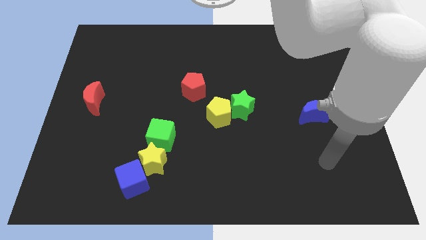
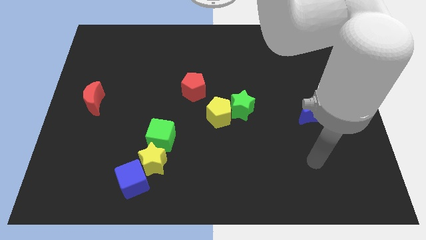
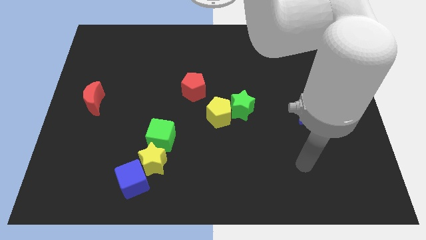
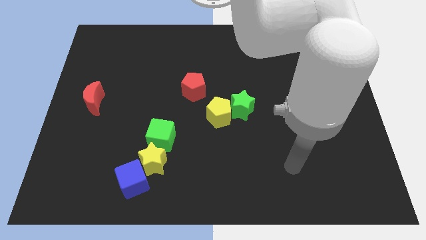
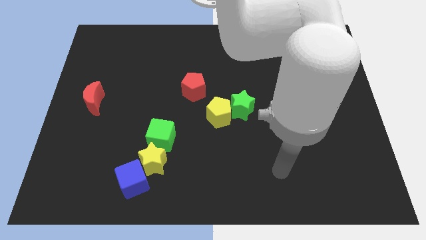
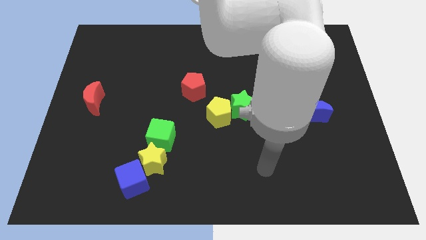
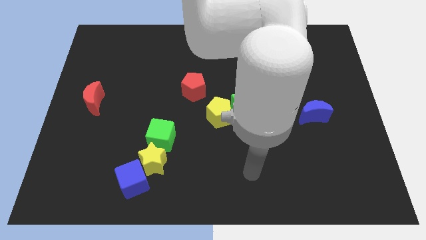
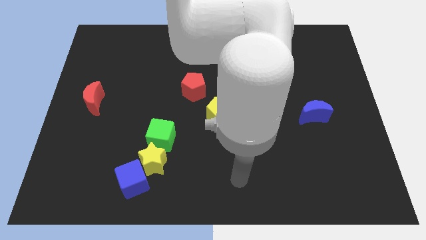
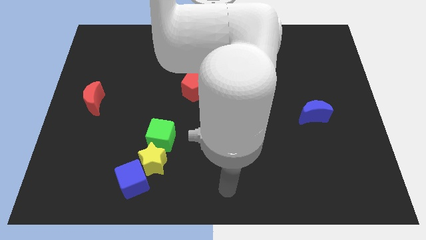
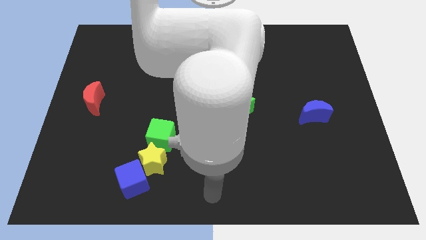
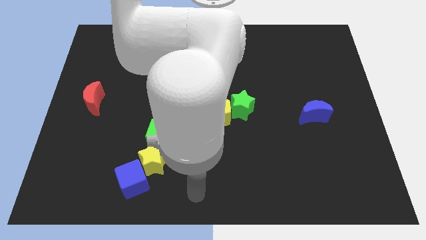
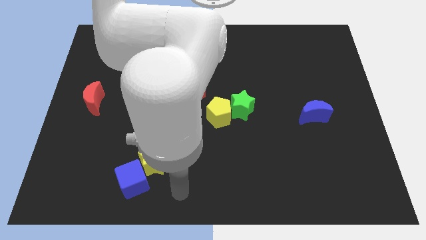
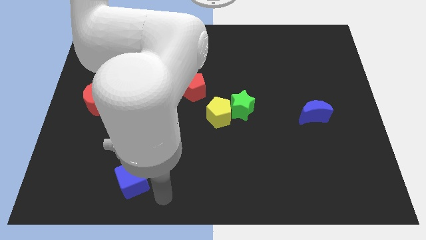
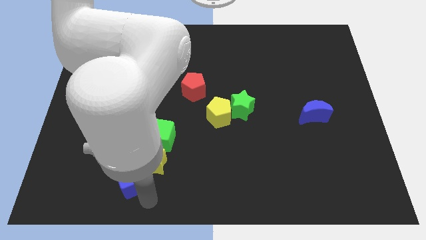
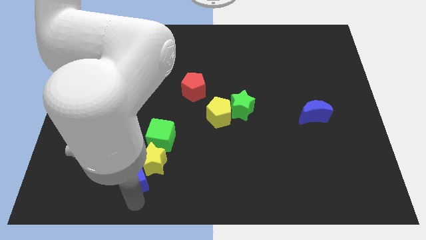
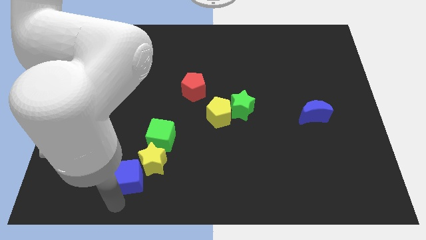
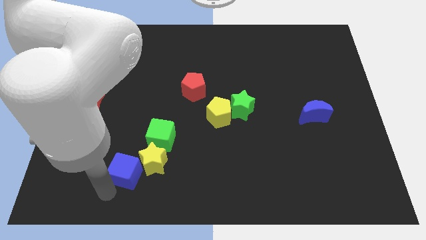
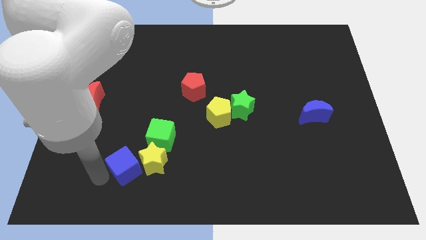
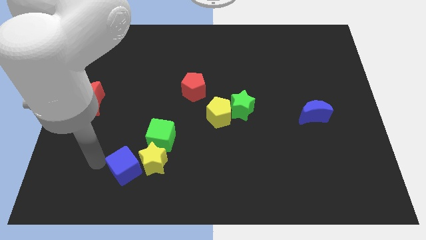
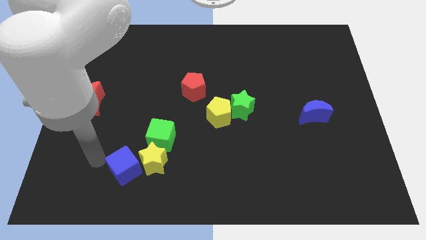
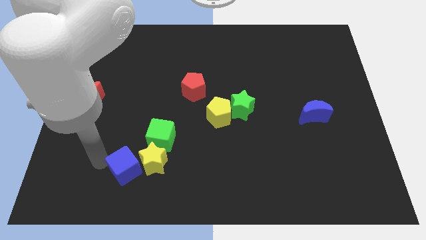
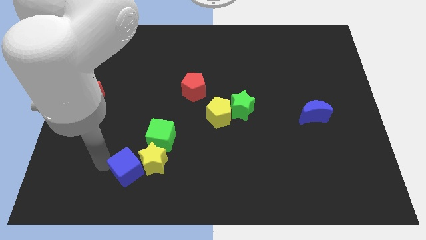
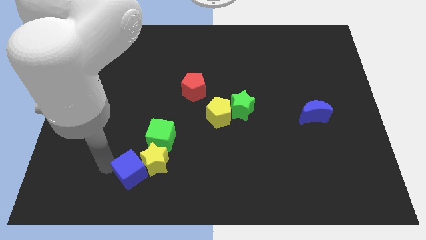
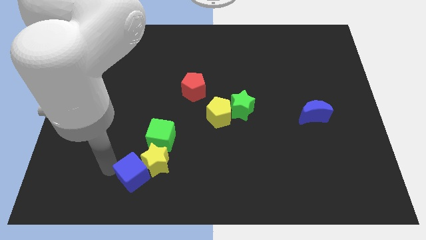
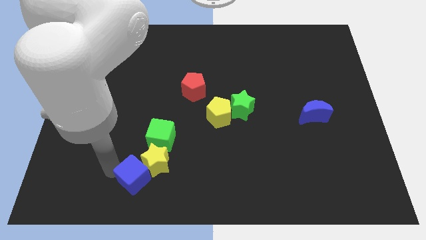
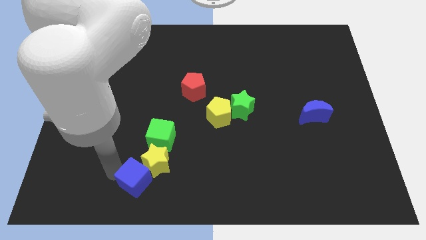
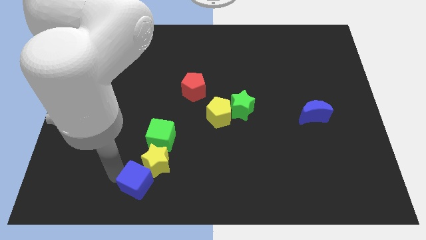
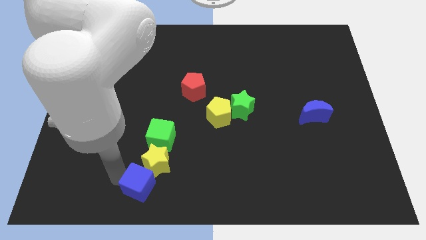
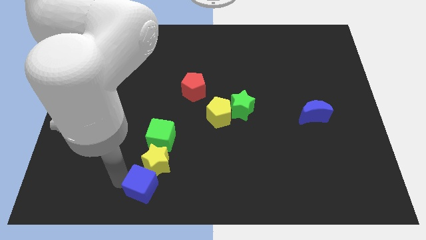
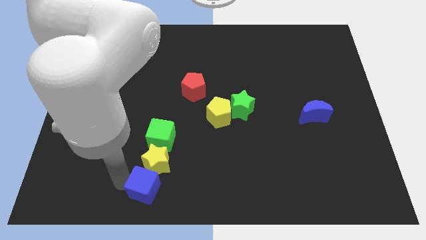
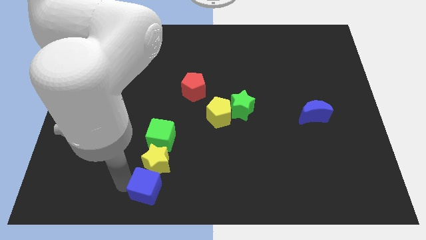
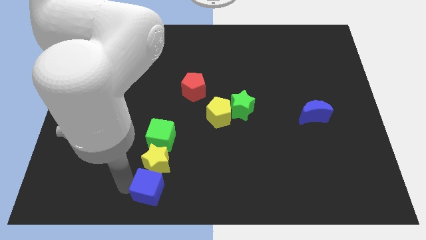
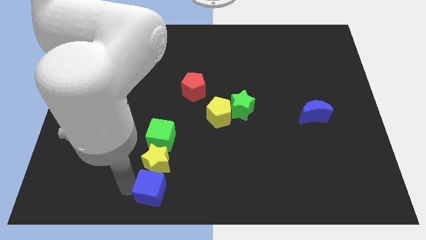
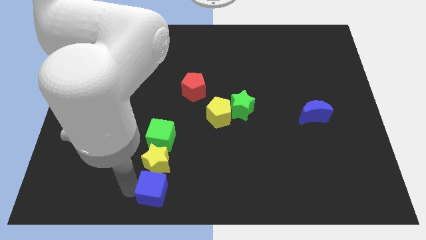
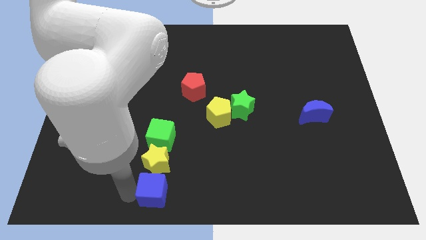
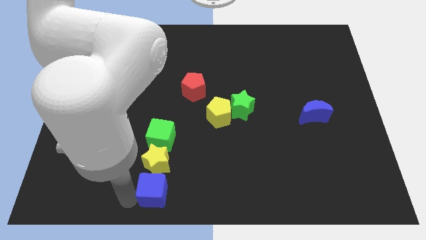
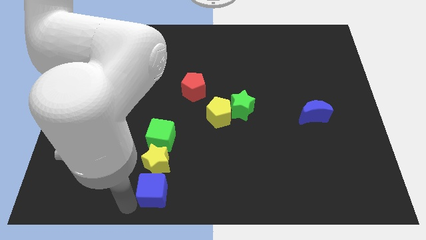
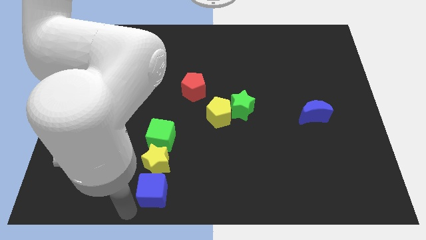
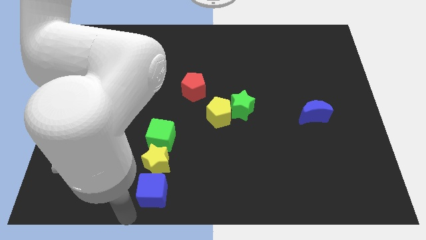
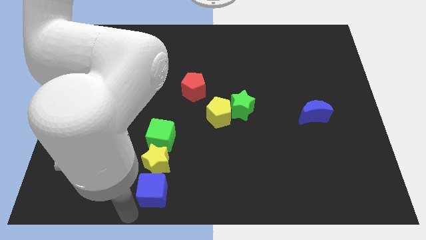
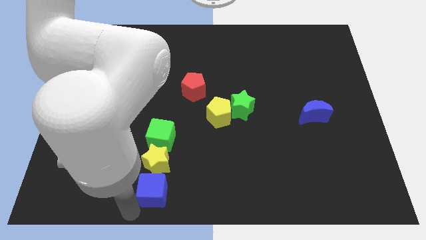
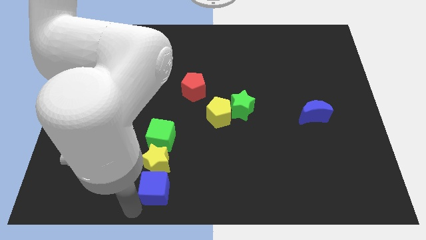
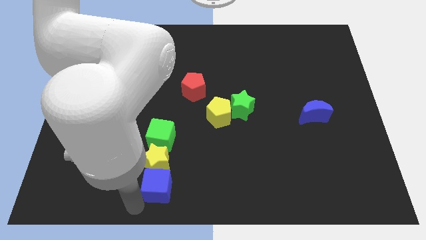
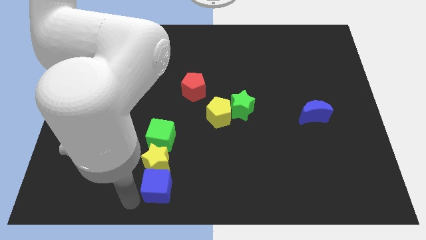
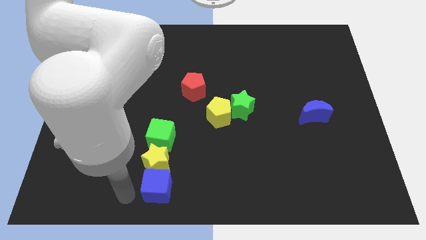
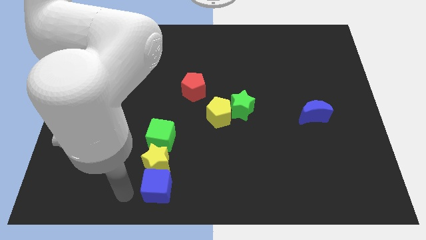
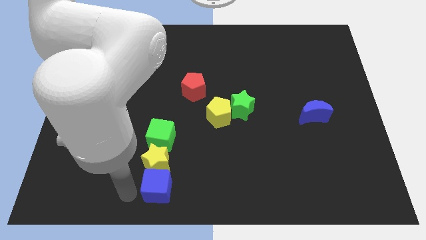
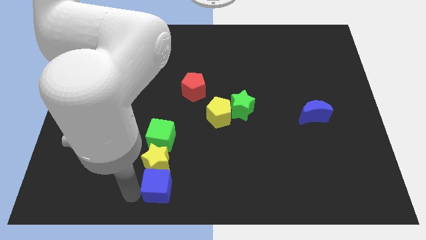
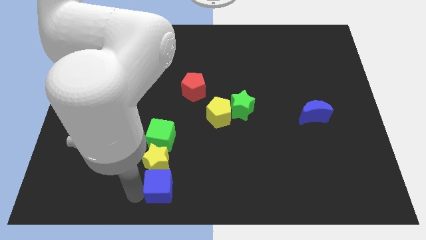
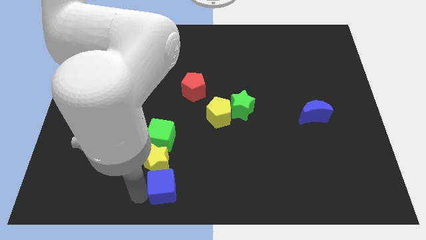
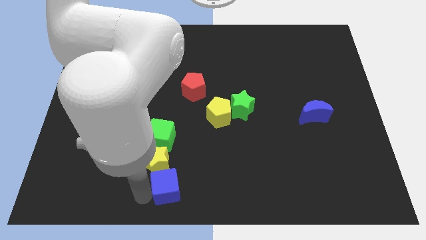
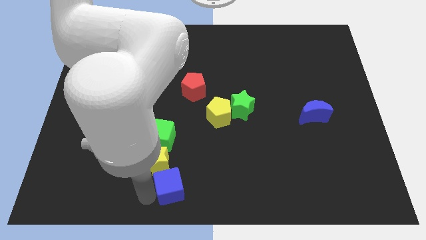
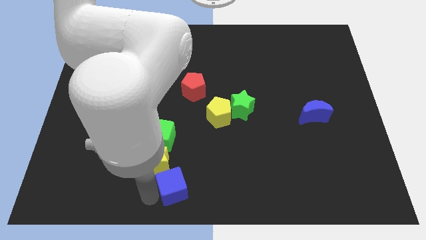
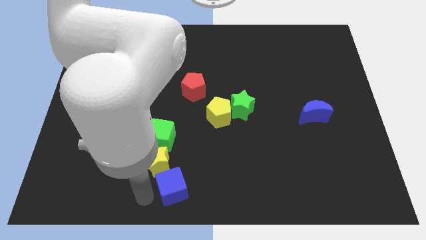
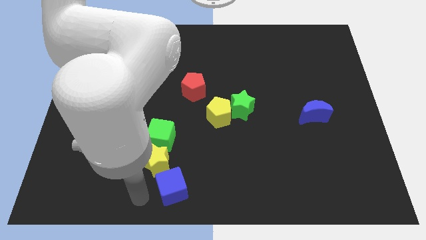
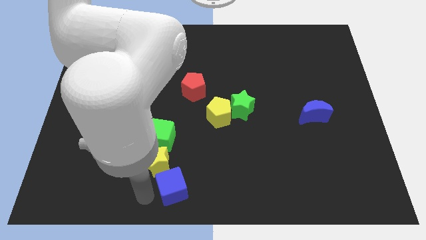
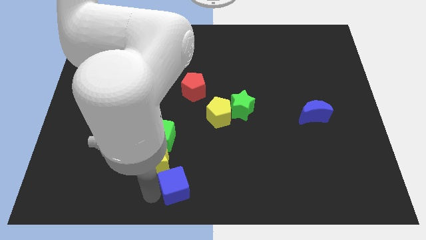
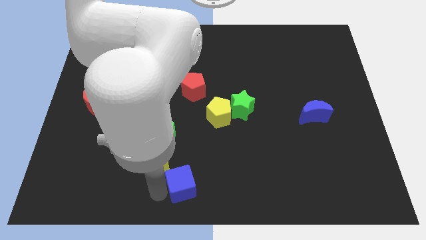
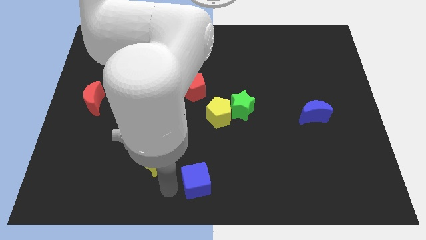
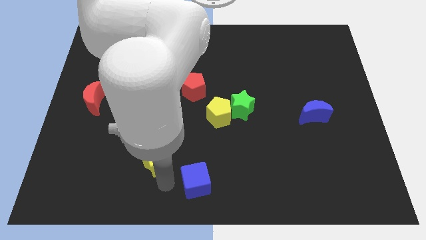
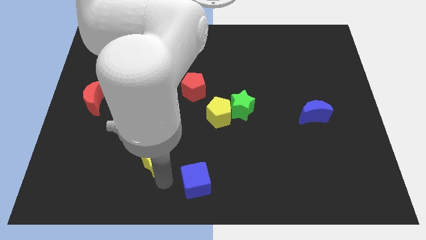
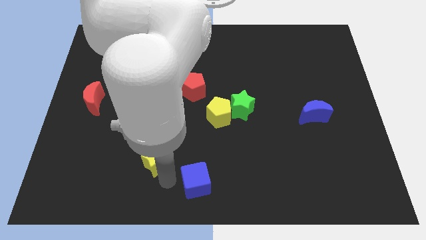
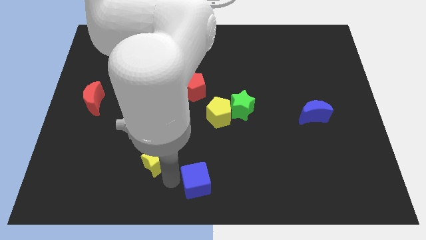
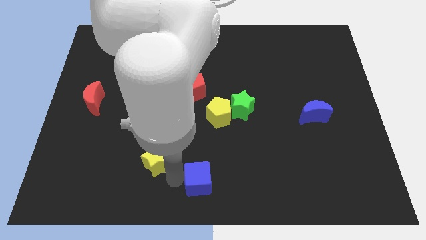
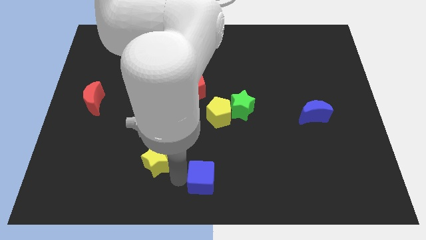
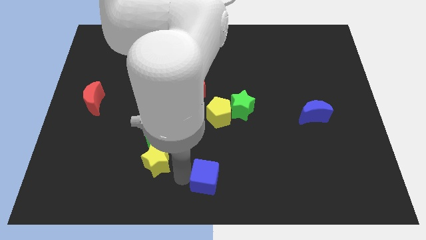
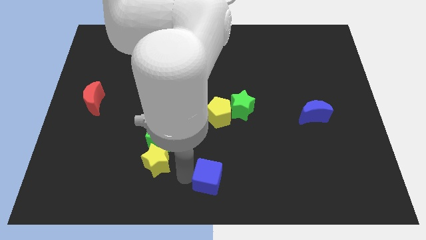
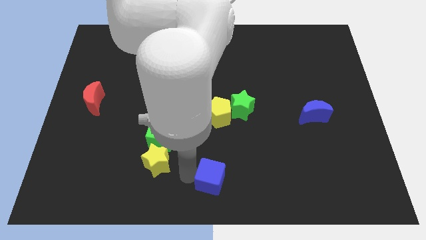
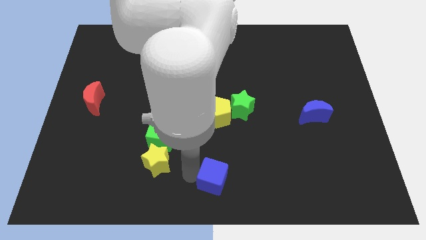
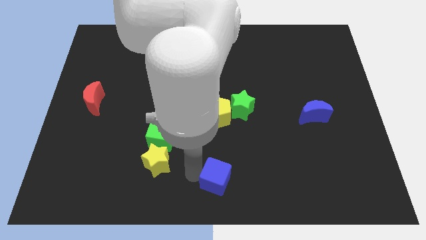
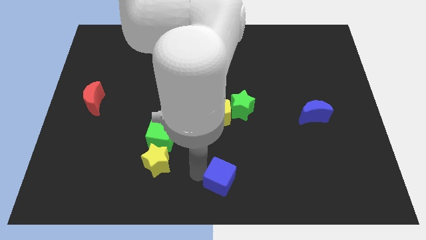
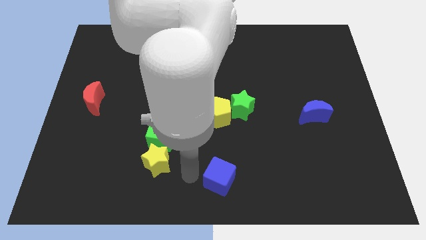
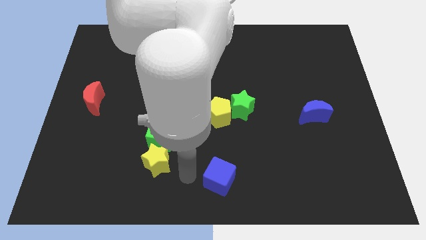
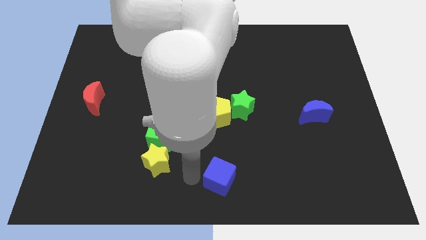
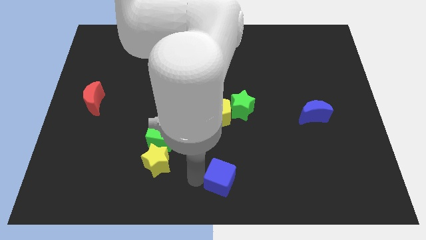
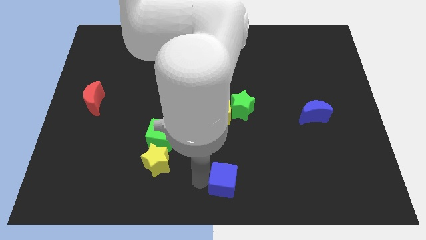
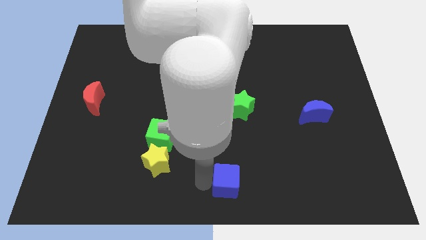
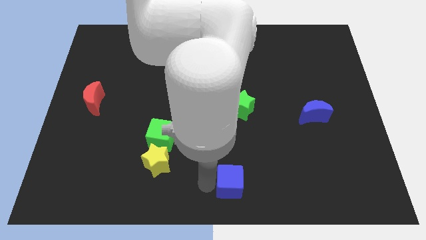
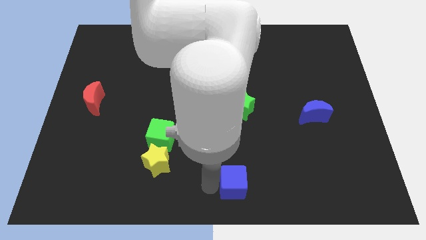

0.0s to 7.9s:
slide the blue cube to the right

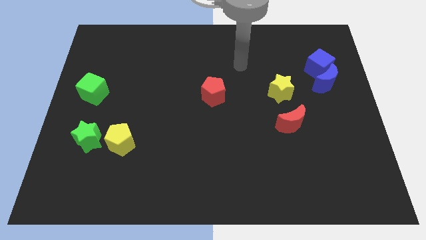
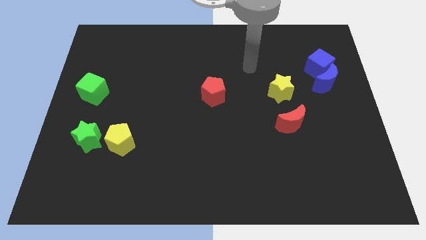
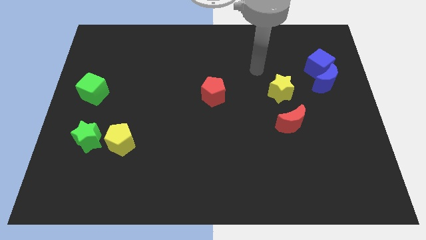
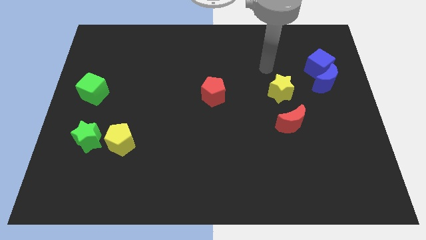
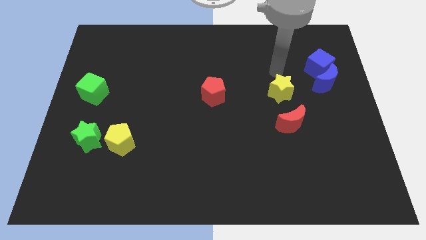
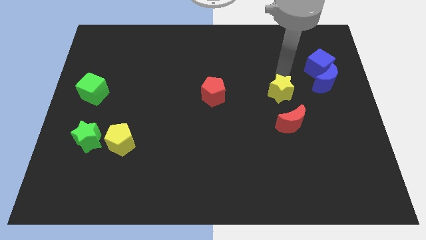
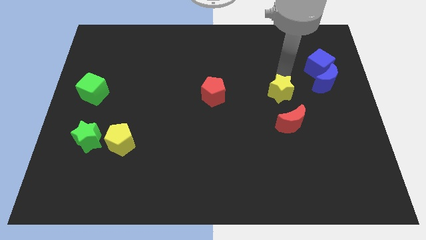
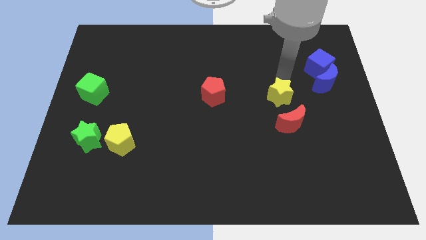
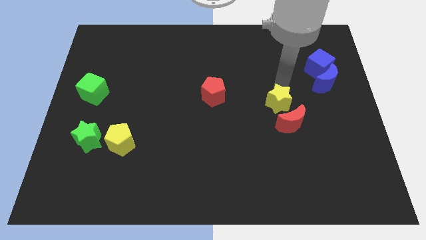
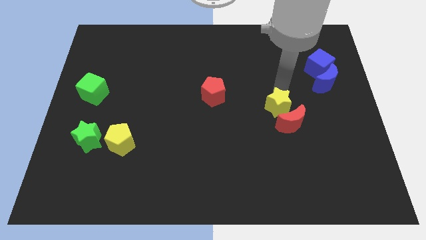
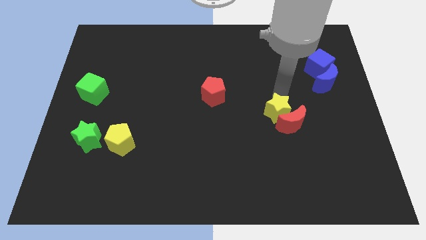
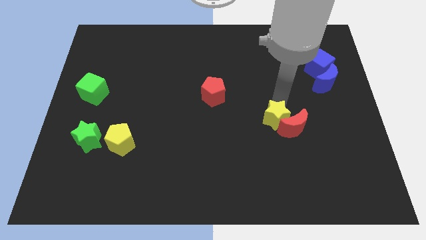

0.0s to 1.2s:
push the yellow star slightly down
